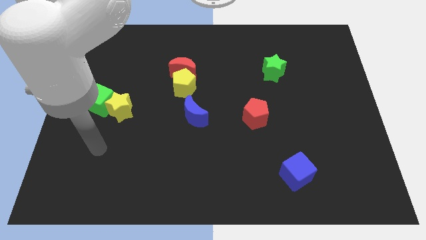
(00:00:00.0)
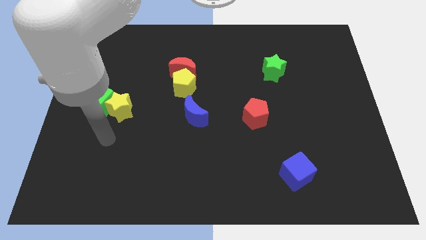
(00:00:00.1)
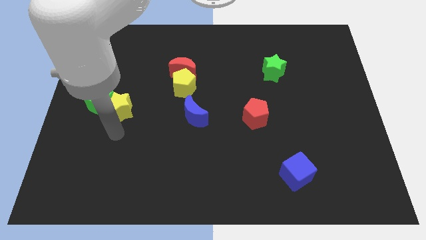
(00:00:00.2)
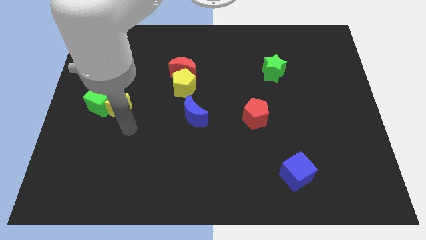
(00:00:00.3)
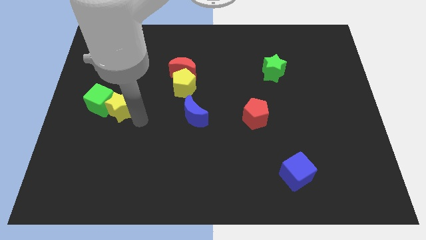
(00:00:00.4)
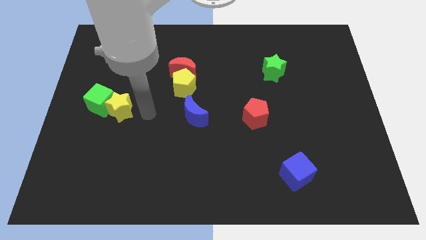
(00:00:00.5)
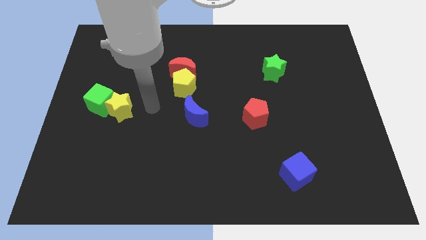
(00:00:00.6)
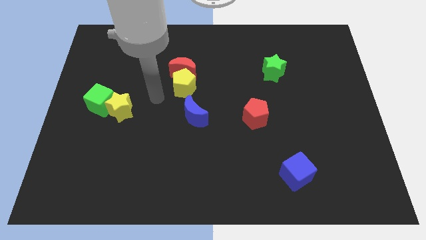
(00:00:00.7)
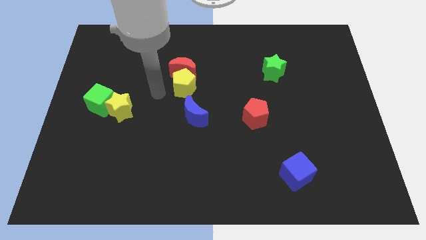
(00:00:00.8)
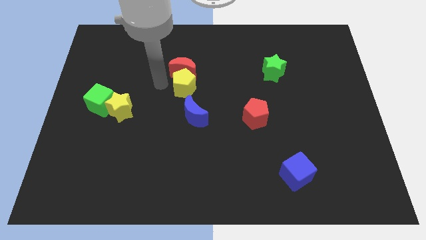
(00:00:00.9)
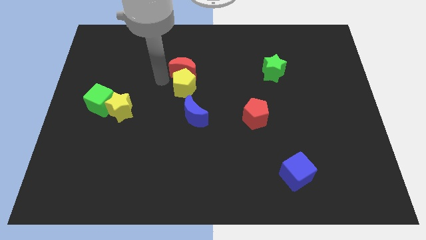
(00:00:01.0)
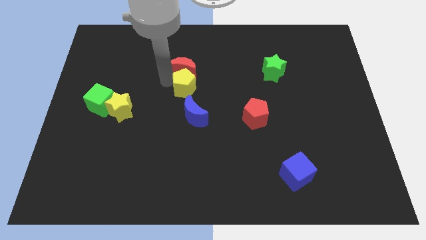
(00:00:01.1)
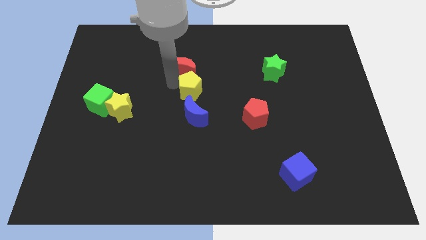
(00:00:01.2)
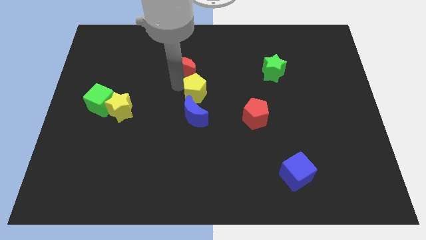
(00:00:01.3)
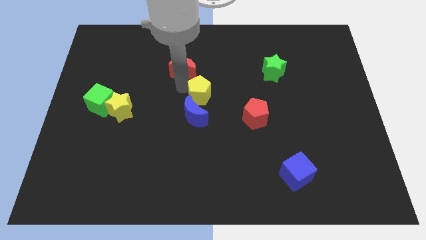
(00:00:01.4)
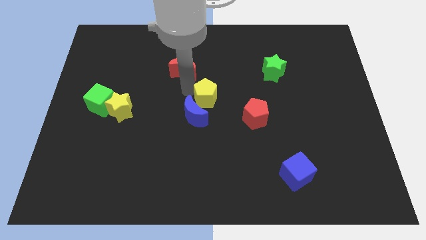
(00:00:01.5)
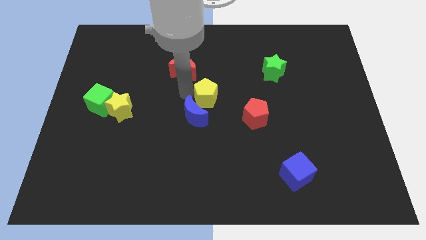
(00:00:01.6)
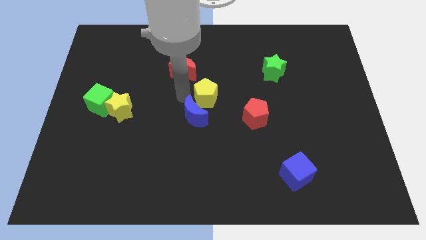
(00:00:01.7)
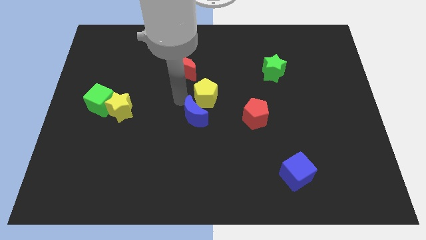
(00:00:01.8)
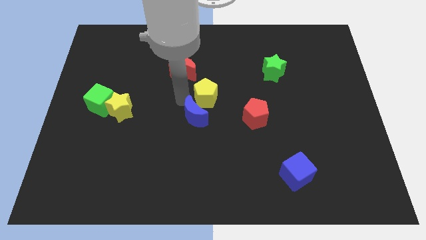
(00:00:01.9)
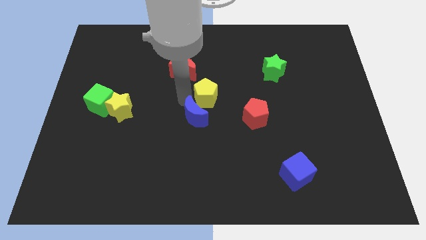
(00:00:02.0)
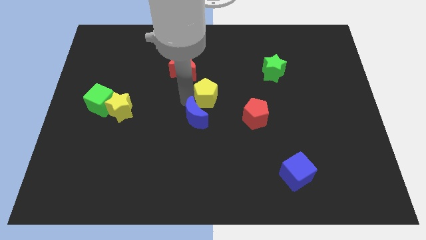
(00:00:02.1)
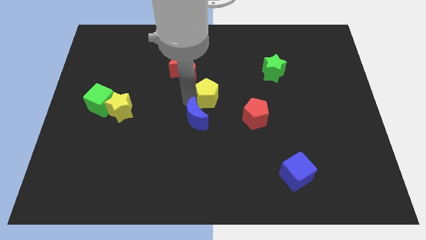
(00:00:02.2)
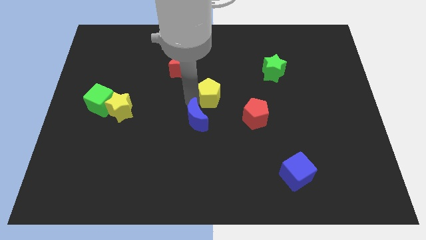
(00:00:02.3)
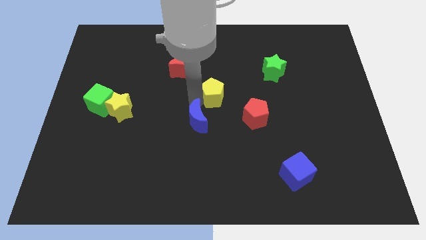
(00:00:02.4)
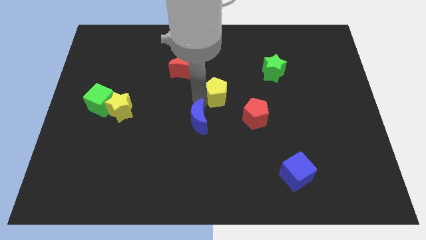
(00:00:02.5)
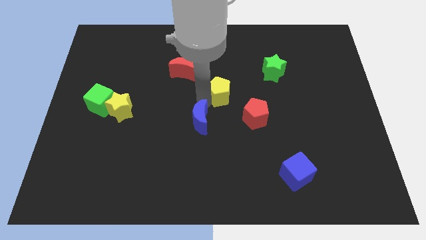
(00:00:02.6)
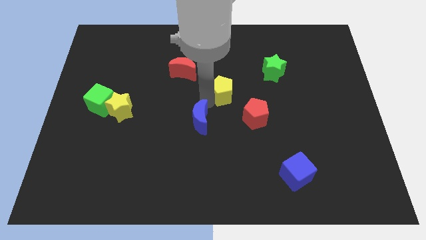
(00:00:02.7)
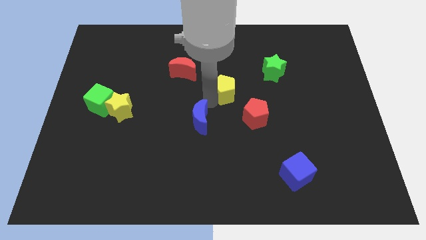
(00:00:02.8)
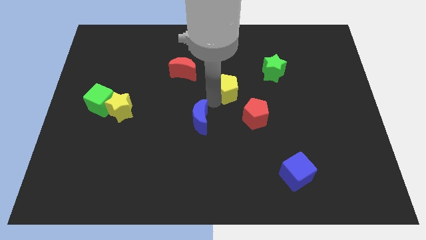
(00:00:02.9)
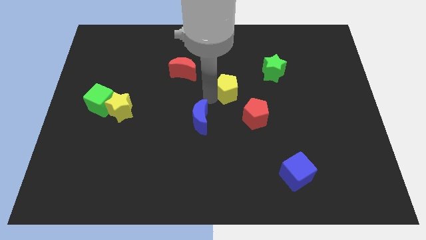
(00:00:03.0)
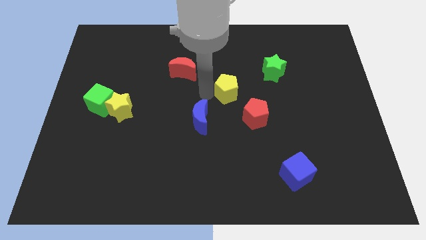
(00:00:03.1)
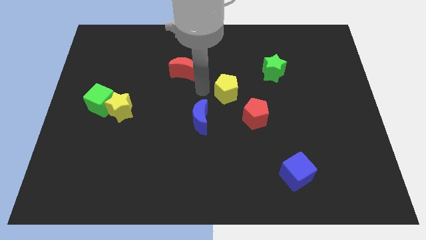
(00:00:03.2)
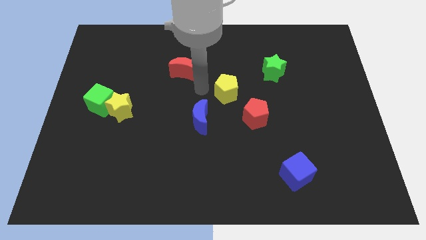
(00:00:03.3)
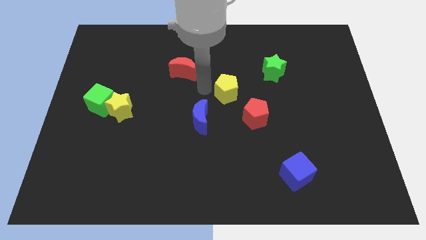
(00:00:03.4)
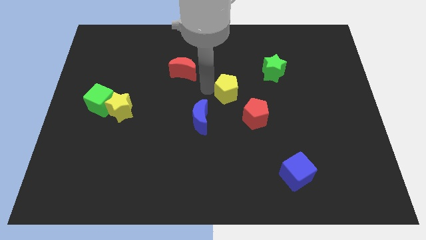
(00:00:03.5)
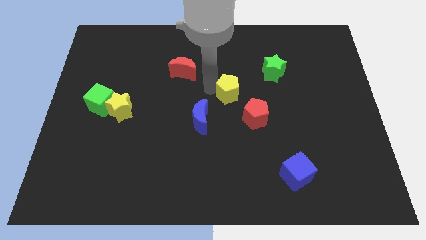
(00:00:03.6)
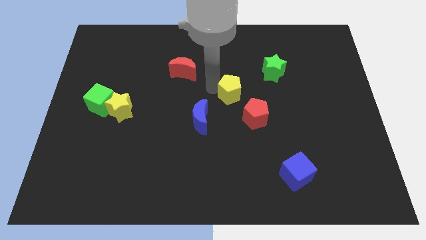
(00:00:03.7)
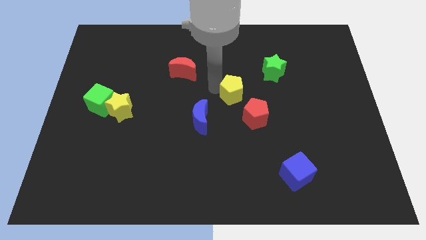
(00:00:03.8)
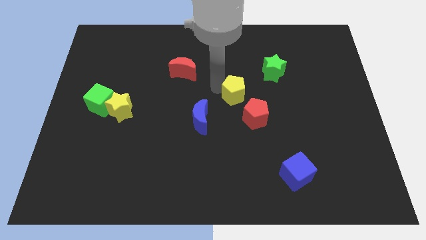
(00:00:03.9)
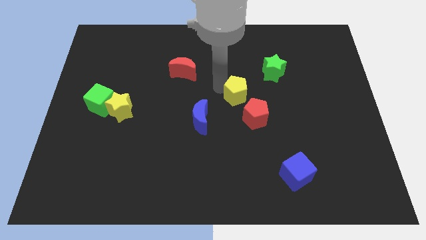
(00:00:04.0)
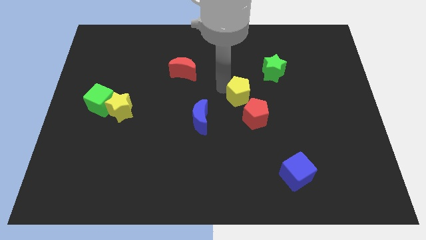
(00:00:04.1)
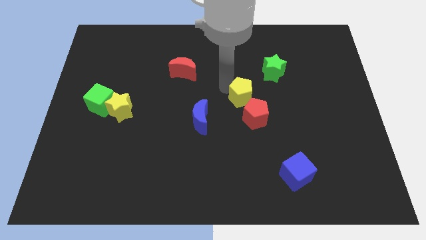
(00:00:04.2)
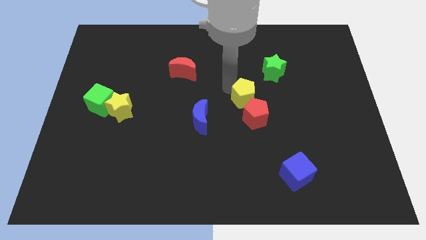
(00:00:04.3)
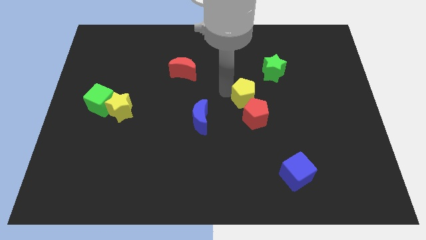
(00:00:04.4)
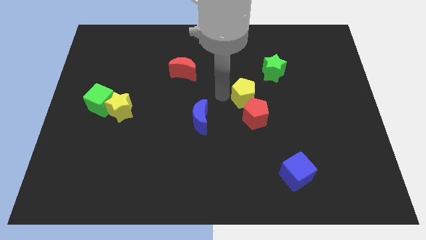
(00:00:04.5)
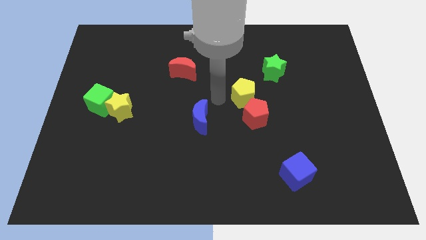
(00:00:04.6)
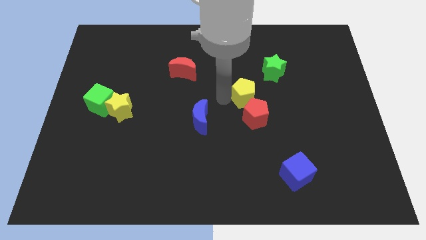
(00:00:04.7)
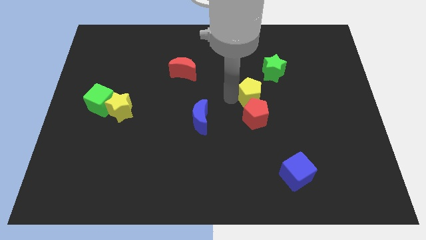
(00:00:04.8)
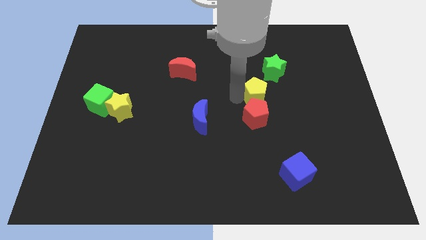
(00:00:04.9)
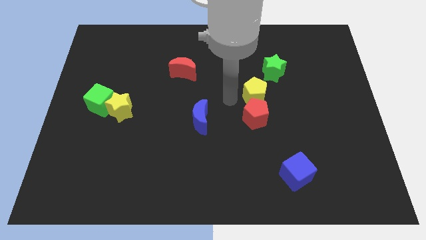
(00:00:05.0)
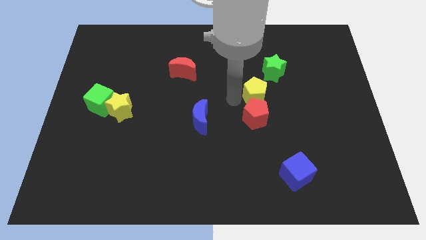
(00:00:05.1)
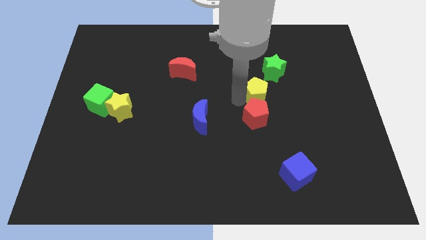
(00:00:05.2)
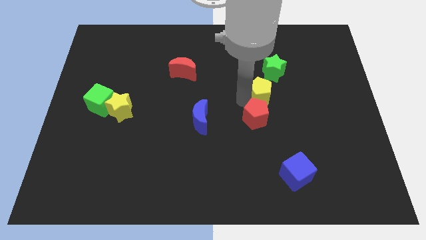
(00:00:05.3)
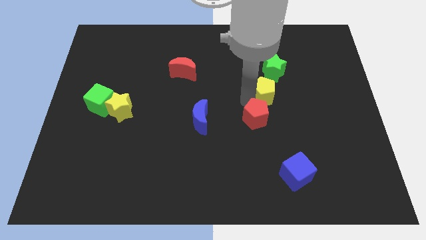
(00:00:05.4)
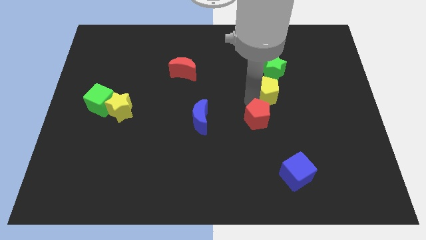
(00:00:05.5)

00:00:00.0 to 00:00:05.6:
move the yellow pentagon to the right

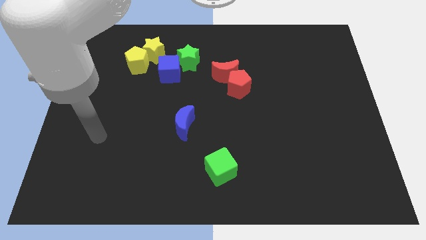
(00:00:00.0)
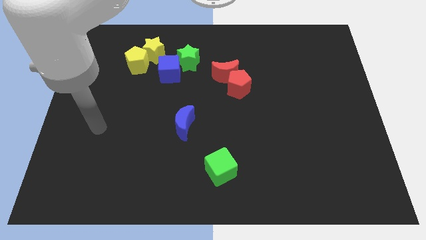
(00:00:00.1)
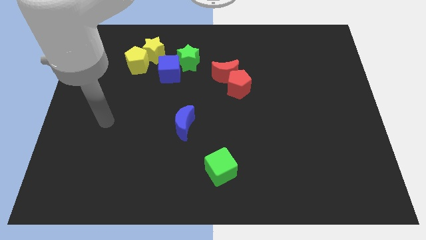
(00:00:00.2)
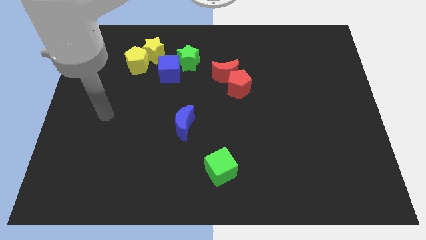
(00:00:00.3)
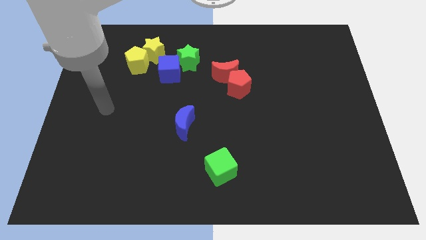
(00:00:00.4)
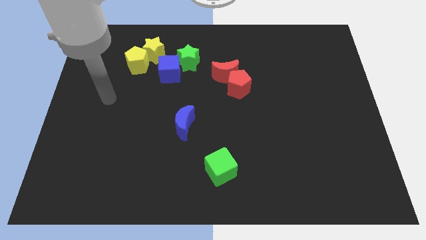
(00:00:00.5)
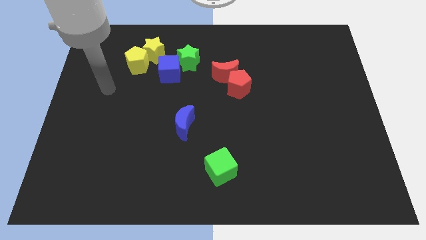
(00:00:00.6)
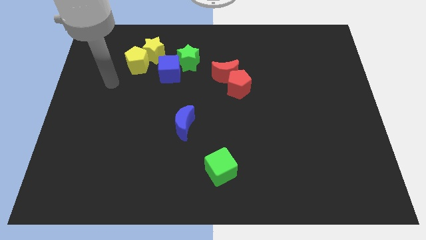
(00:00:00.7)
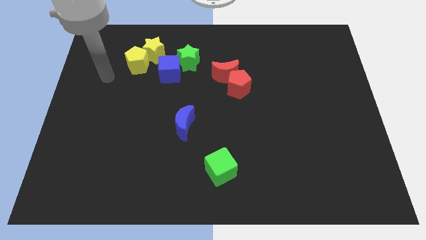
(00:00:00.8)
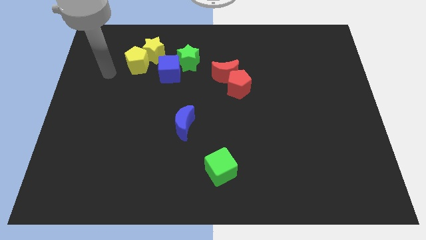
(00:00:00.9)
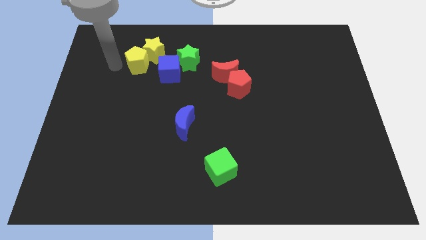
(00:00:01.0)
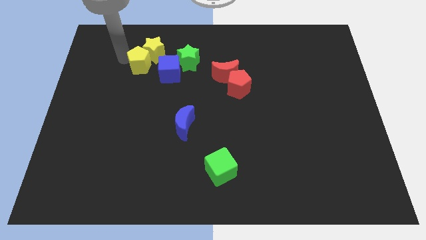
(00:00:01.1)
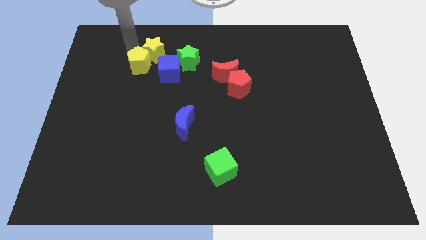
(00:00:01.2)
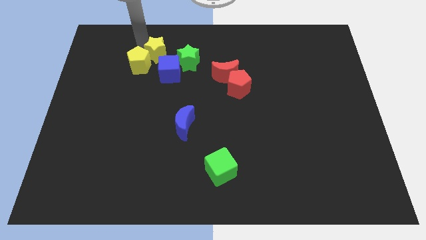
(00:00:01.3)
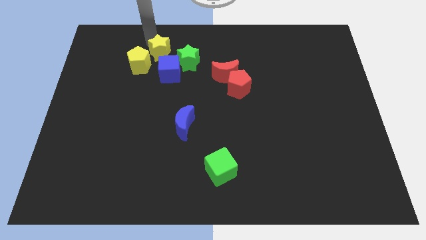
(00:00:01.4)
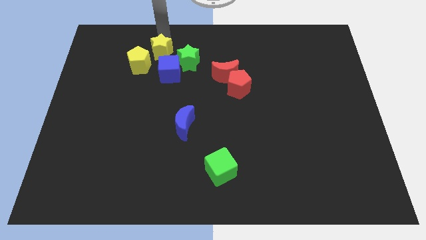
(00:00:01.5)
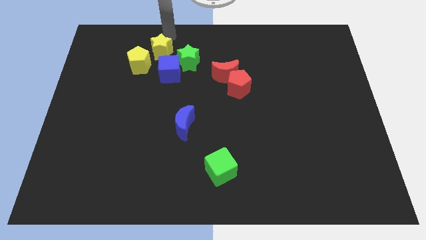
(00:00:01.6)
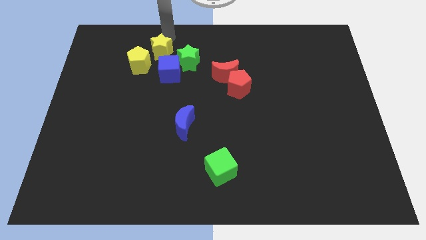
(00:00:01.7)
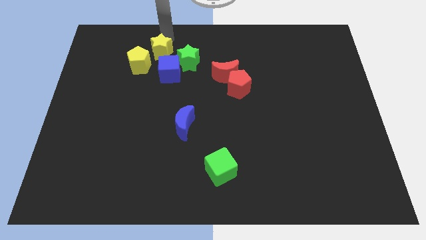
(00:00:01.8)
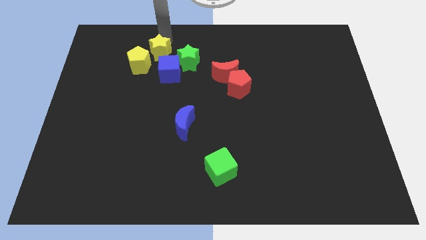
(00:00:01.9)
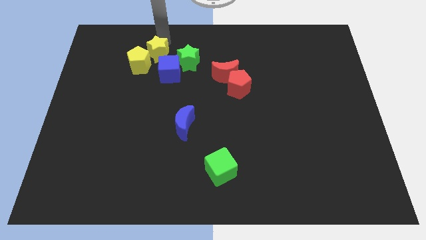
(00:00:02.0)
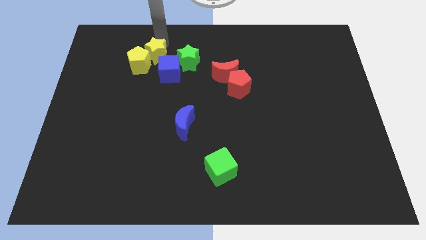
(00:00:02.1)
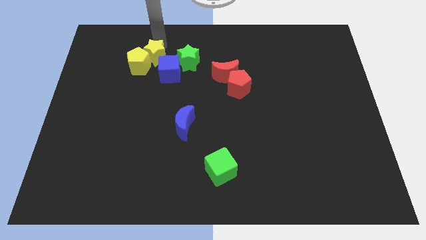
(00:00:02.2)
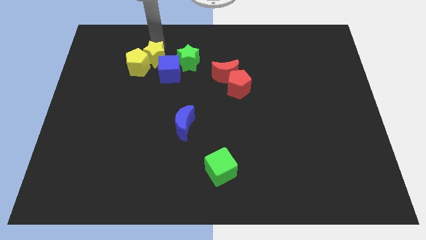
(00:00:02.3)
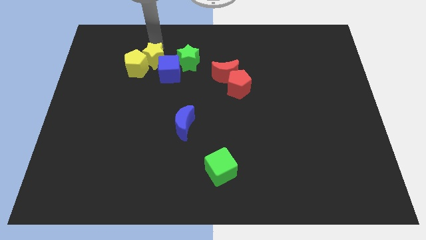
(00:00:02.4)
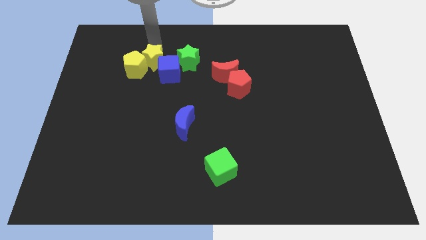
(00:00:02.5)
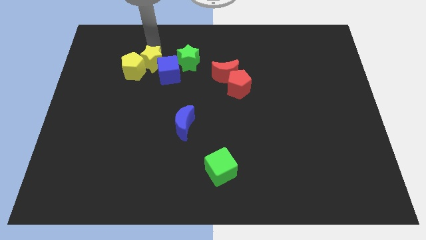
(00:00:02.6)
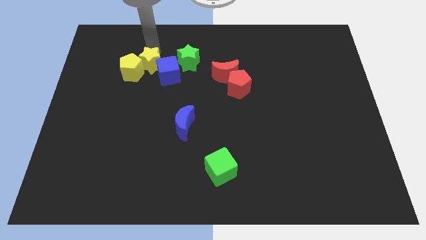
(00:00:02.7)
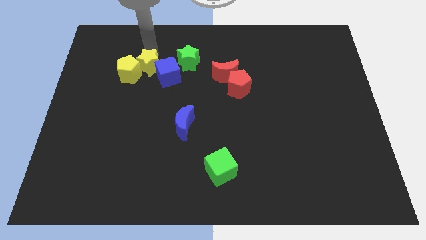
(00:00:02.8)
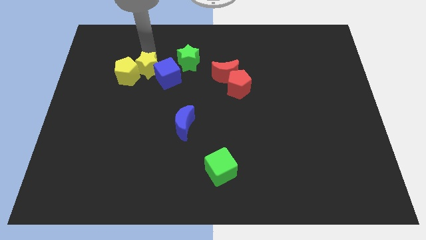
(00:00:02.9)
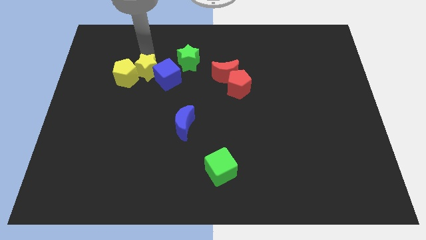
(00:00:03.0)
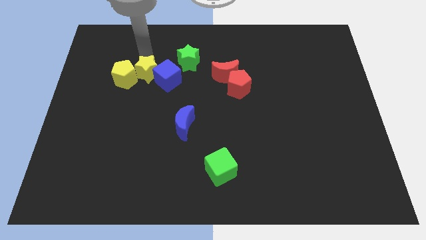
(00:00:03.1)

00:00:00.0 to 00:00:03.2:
push the yellow star a little bit down
